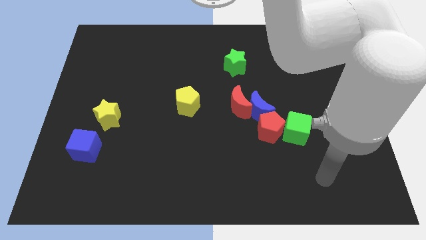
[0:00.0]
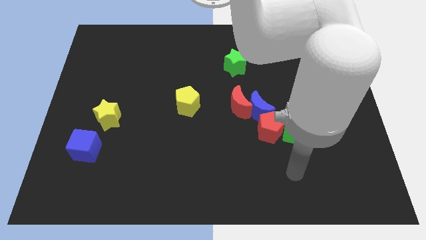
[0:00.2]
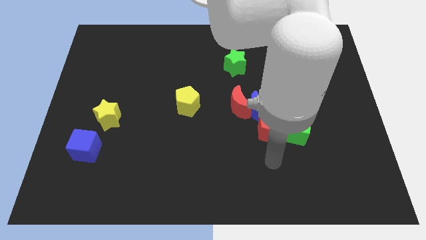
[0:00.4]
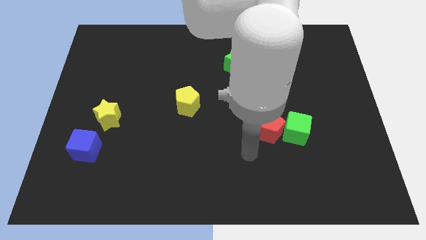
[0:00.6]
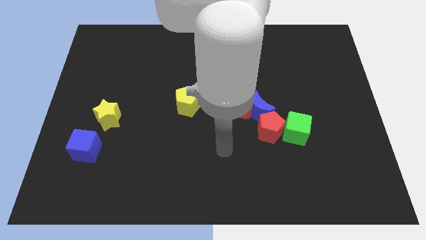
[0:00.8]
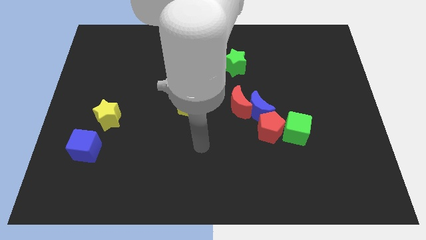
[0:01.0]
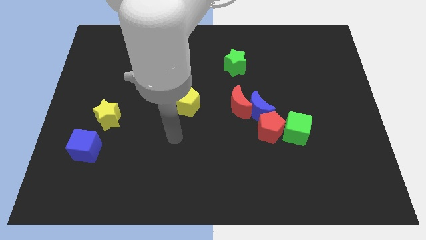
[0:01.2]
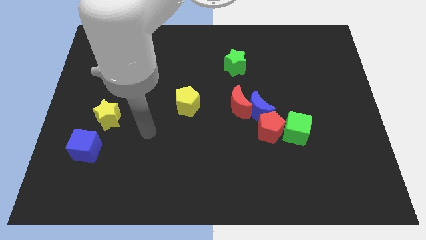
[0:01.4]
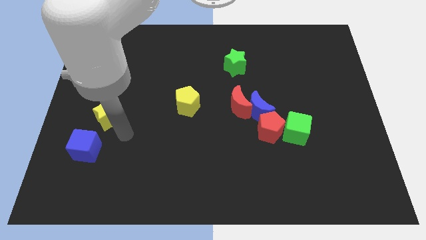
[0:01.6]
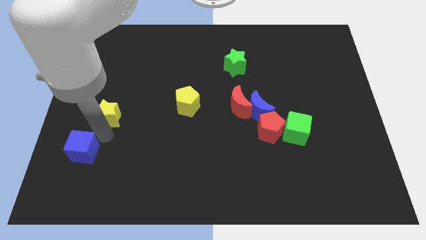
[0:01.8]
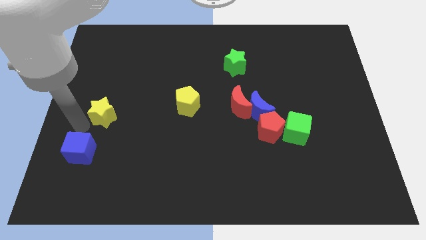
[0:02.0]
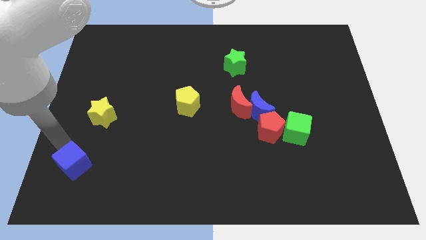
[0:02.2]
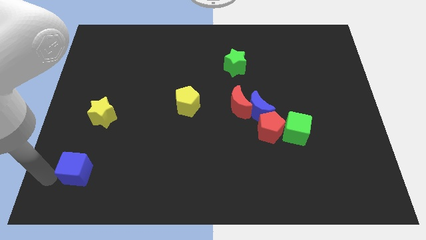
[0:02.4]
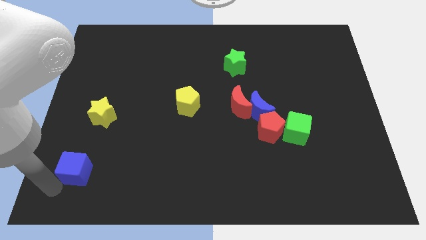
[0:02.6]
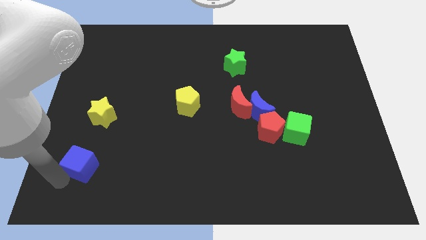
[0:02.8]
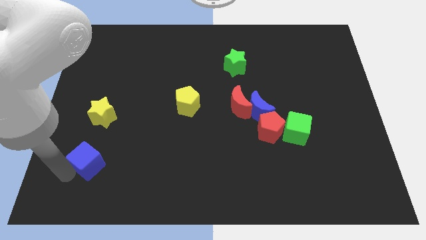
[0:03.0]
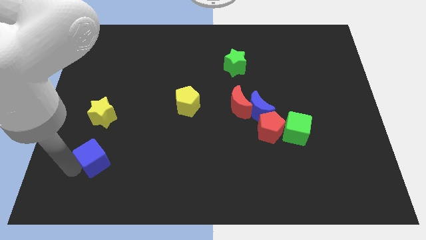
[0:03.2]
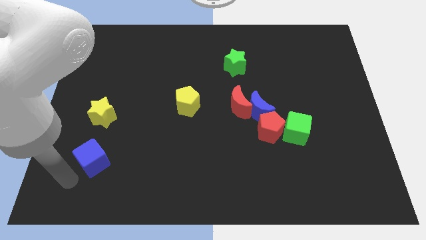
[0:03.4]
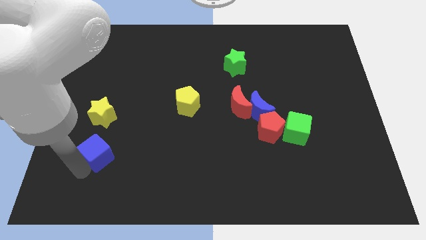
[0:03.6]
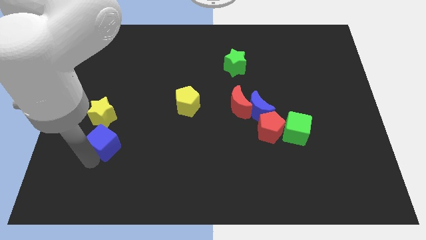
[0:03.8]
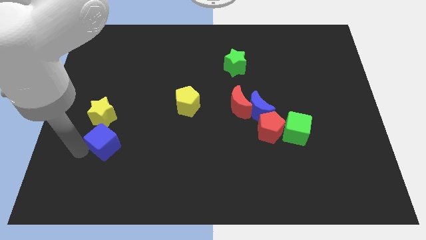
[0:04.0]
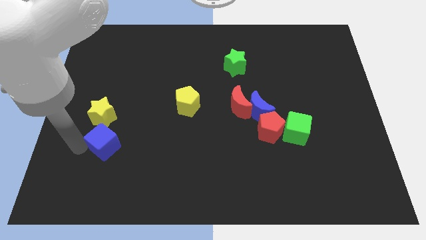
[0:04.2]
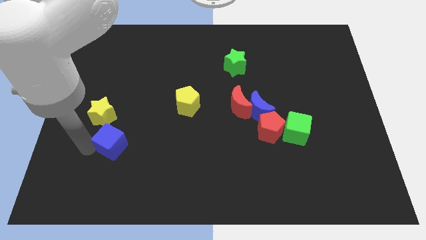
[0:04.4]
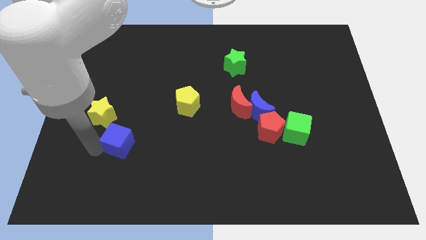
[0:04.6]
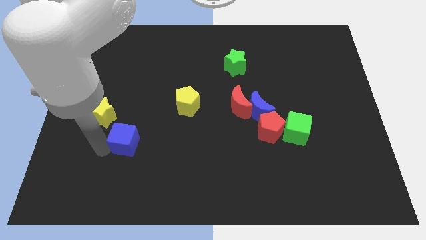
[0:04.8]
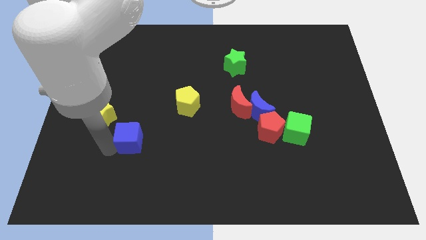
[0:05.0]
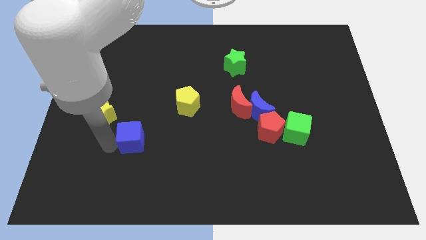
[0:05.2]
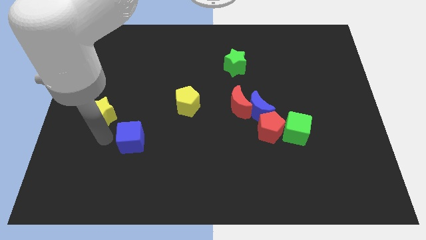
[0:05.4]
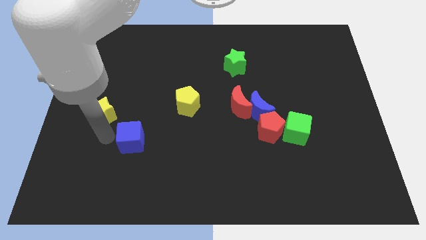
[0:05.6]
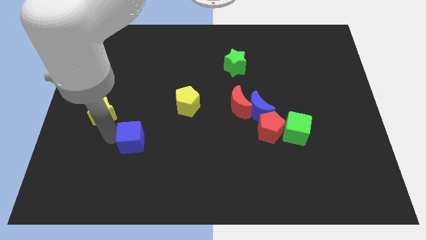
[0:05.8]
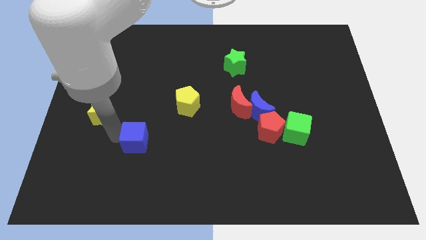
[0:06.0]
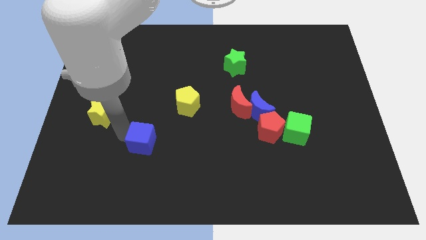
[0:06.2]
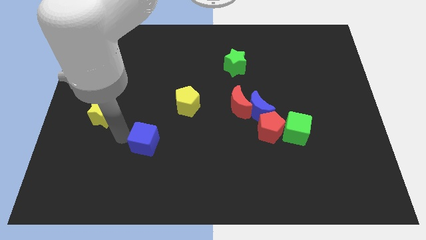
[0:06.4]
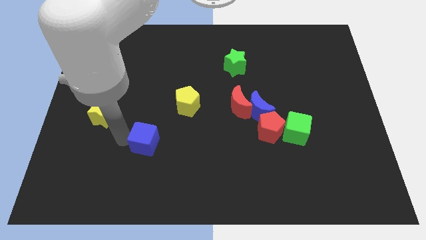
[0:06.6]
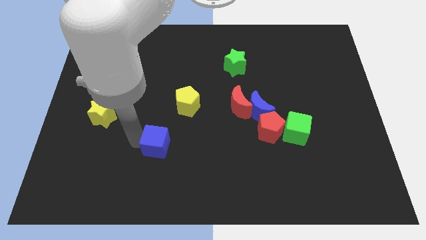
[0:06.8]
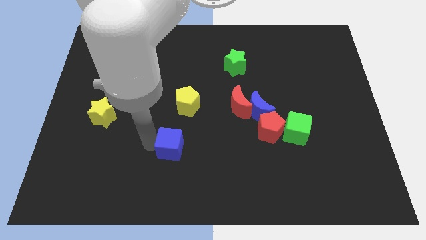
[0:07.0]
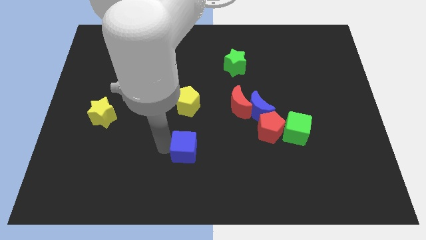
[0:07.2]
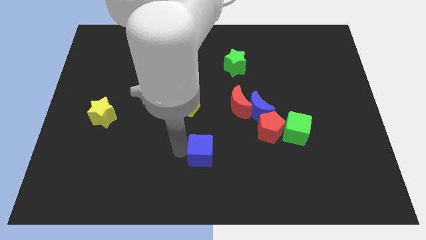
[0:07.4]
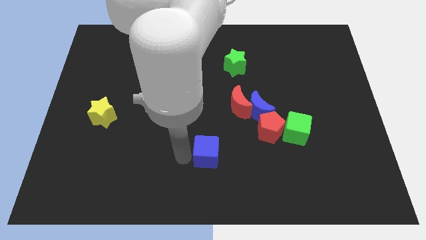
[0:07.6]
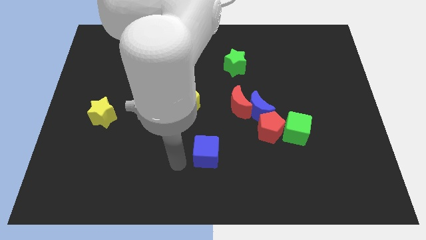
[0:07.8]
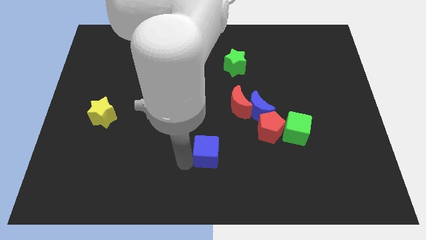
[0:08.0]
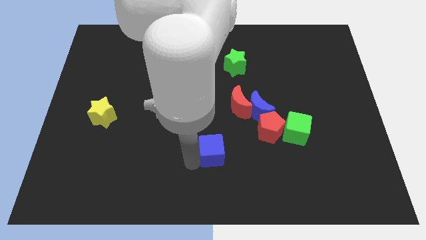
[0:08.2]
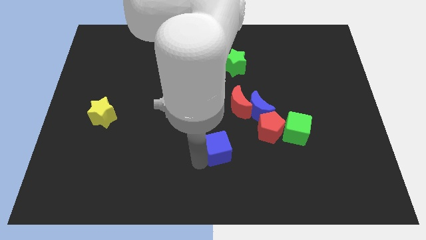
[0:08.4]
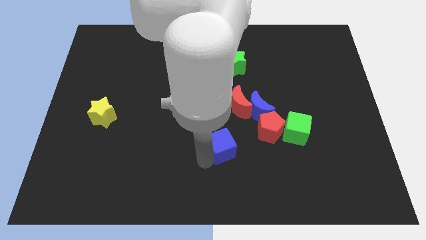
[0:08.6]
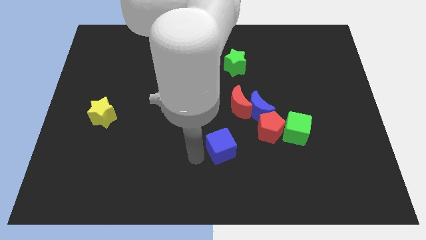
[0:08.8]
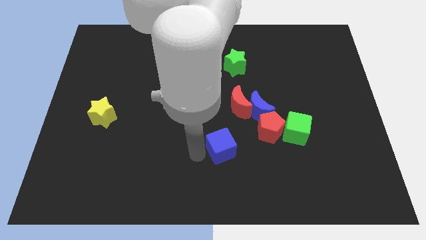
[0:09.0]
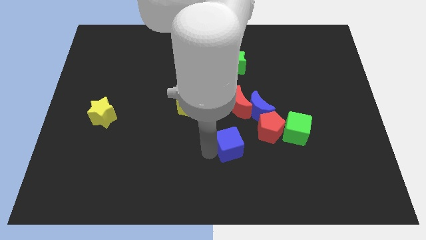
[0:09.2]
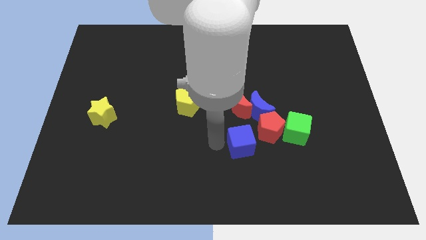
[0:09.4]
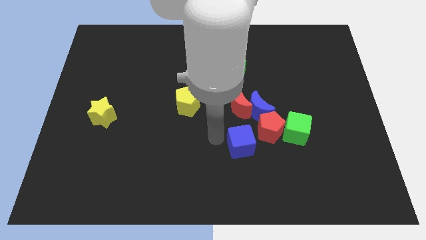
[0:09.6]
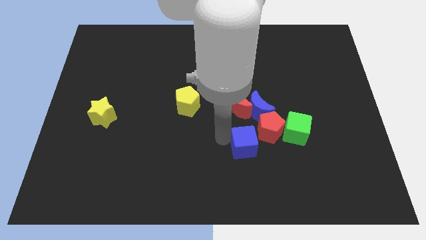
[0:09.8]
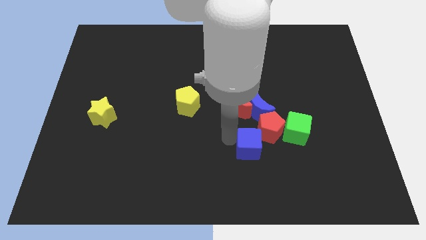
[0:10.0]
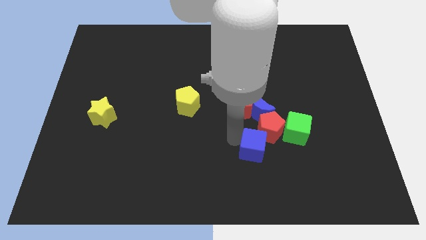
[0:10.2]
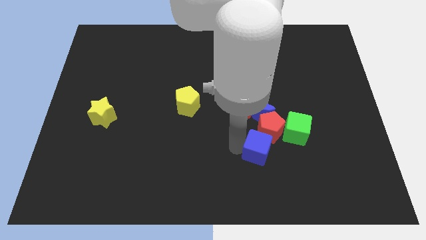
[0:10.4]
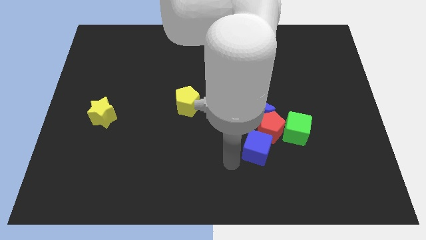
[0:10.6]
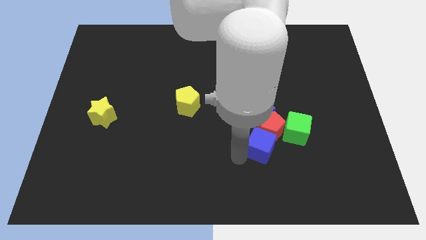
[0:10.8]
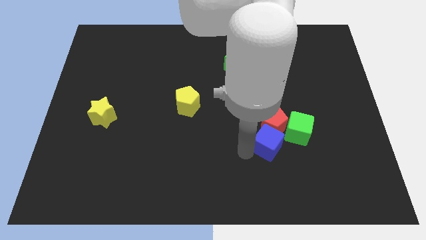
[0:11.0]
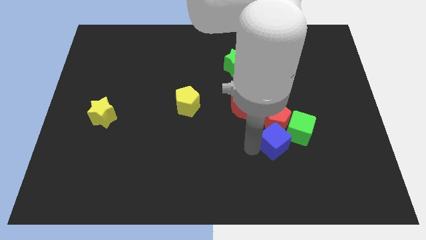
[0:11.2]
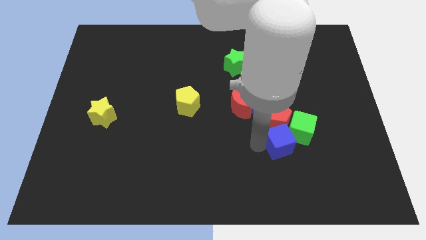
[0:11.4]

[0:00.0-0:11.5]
slide the blue cube close to the green cube

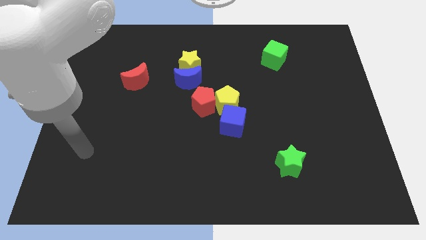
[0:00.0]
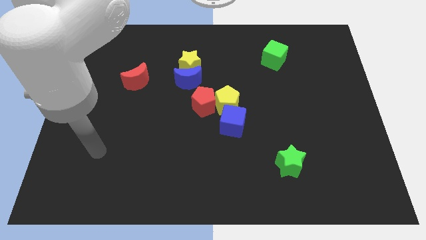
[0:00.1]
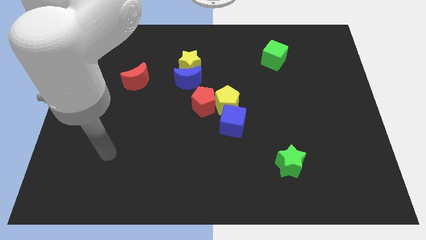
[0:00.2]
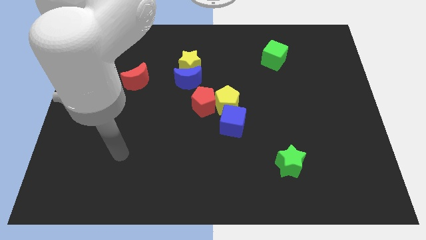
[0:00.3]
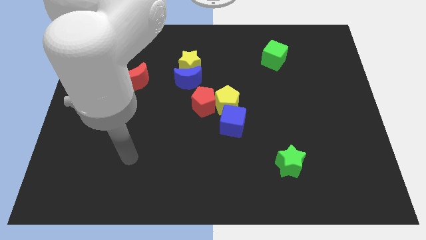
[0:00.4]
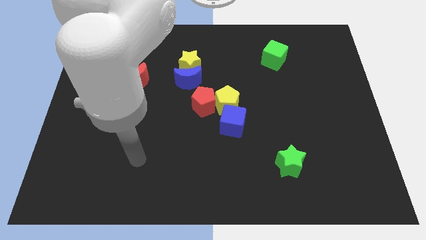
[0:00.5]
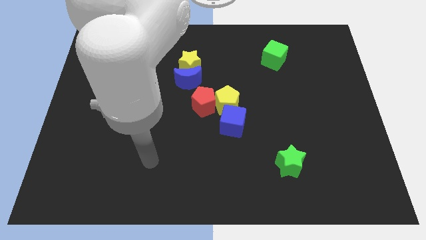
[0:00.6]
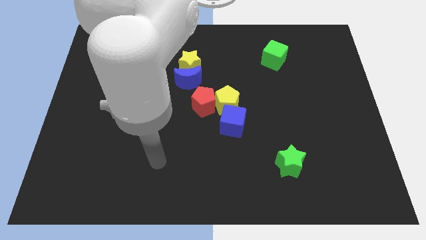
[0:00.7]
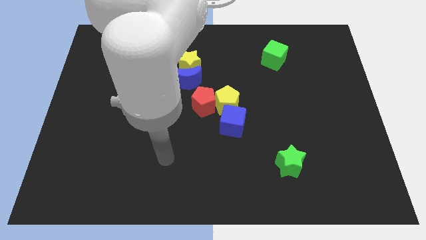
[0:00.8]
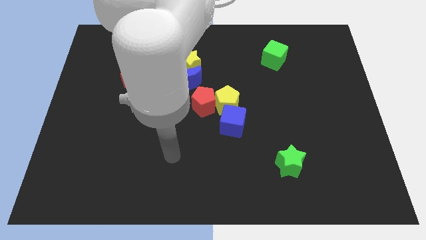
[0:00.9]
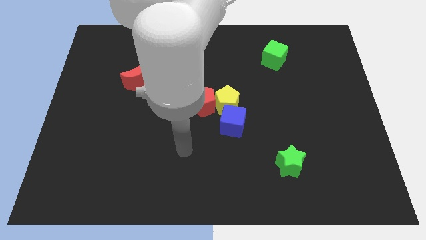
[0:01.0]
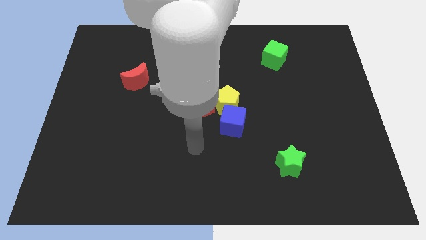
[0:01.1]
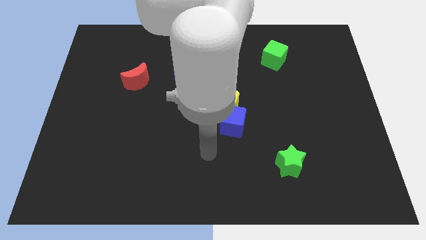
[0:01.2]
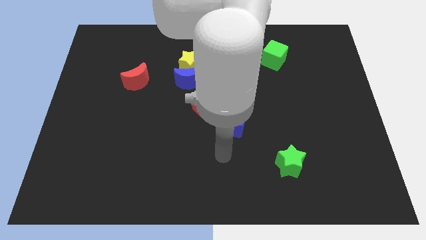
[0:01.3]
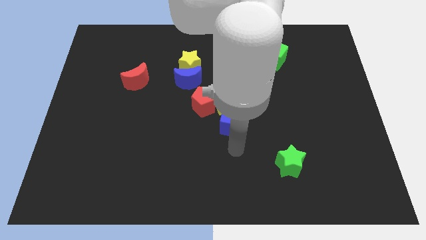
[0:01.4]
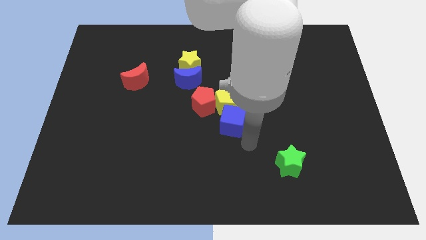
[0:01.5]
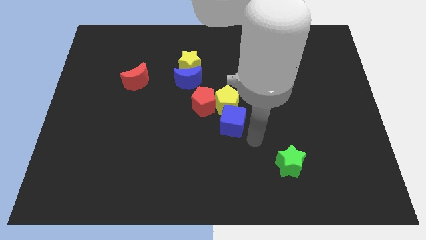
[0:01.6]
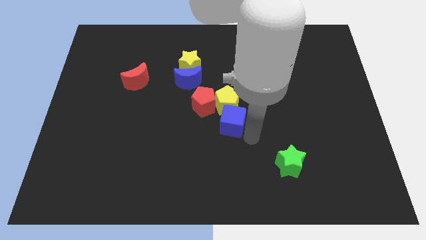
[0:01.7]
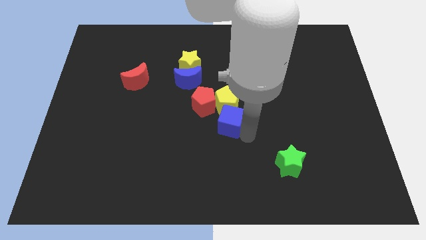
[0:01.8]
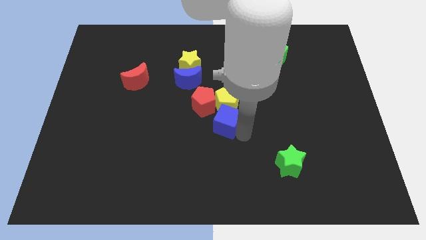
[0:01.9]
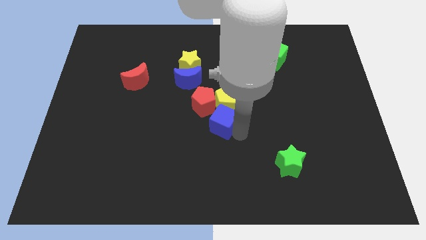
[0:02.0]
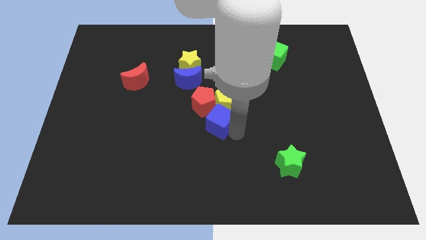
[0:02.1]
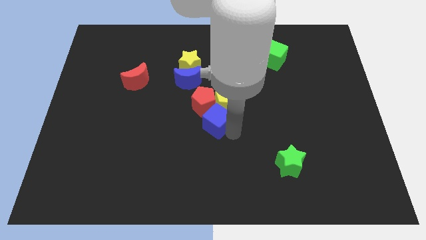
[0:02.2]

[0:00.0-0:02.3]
push the blue cube towards the red pentagon
